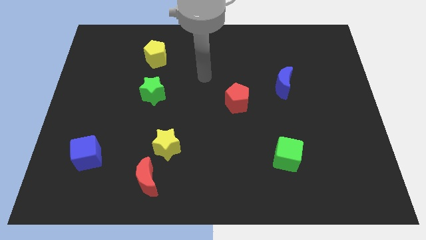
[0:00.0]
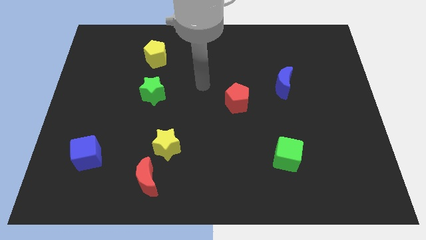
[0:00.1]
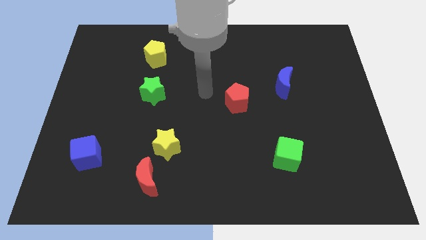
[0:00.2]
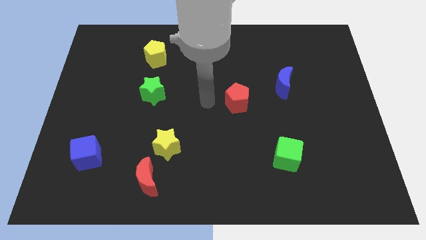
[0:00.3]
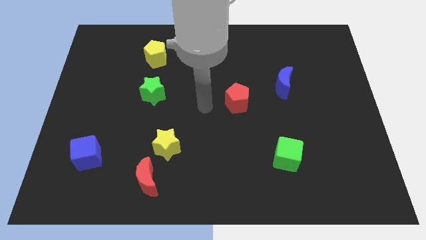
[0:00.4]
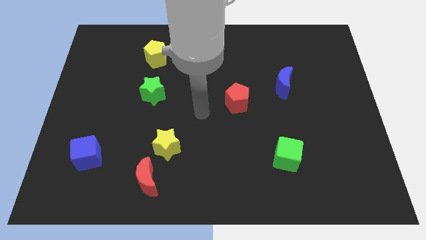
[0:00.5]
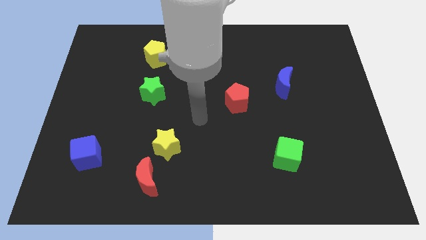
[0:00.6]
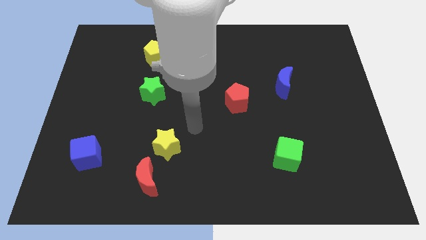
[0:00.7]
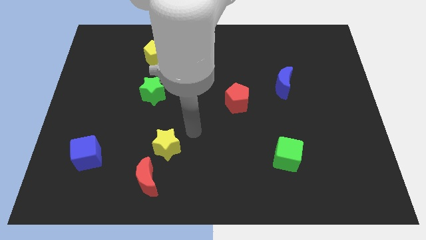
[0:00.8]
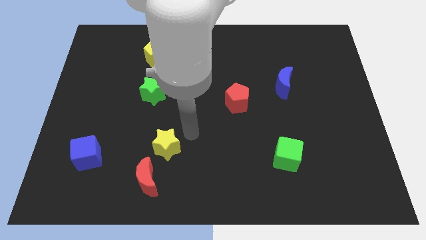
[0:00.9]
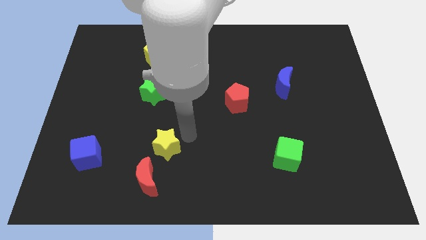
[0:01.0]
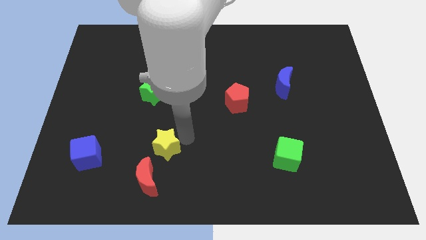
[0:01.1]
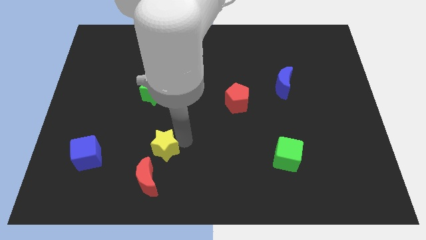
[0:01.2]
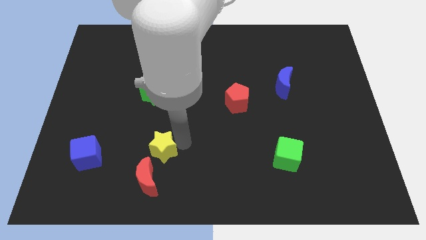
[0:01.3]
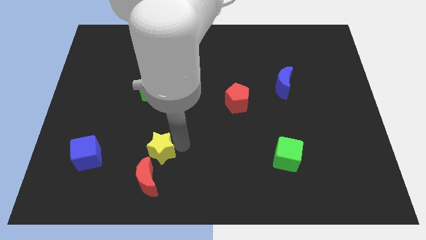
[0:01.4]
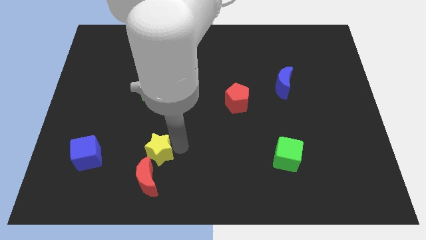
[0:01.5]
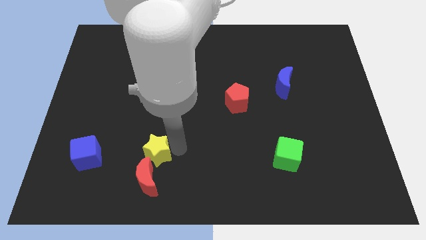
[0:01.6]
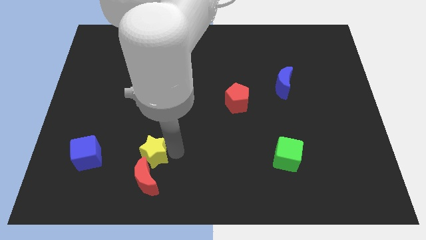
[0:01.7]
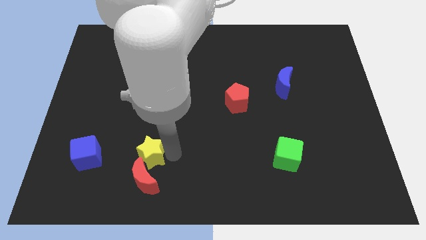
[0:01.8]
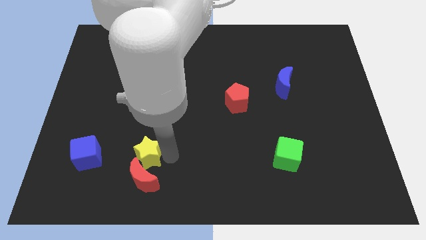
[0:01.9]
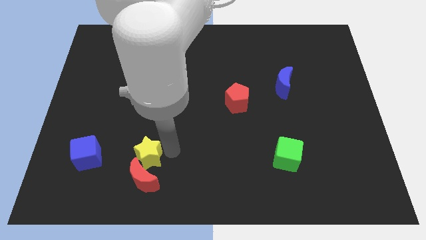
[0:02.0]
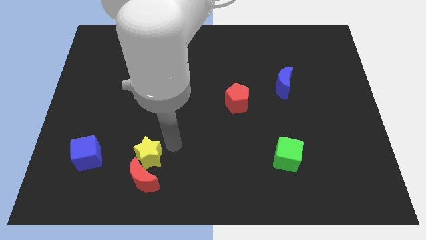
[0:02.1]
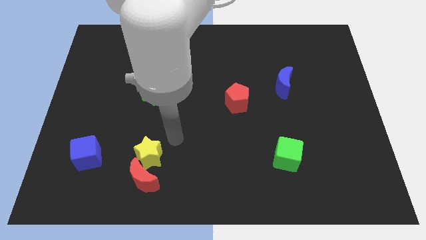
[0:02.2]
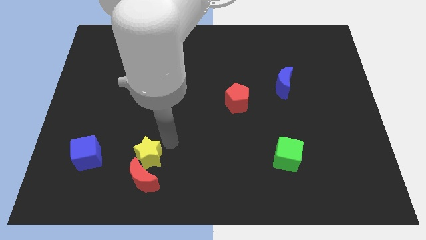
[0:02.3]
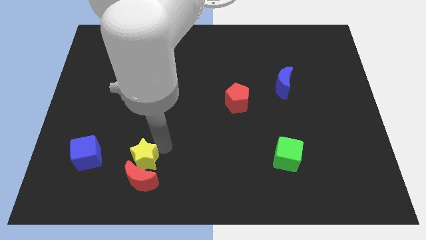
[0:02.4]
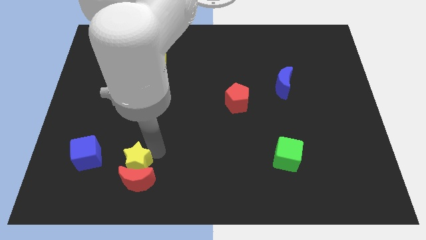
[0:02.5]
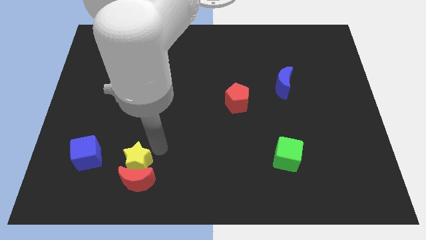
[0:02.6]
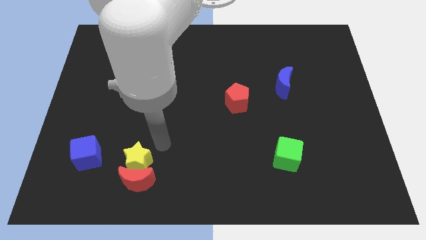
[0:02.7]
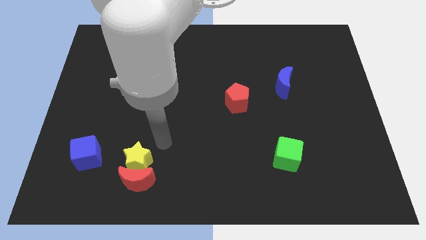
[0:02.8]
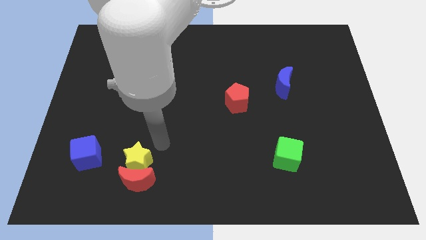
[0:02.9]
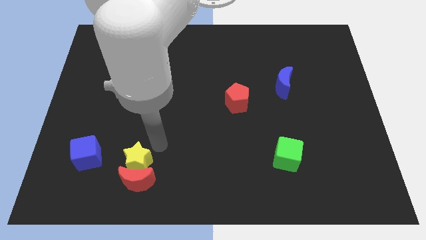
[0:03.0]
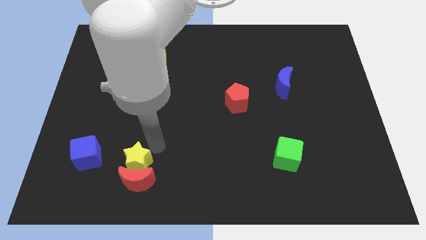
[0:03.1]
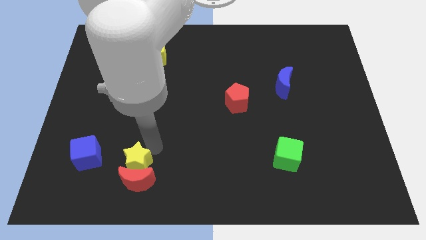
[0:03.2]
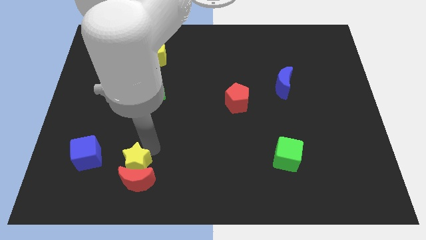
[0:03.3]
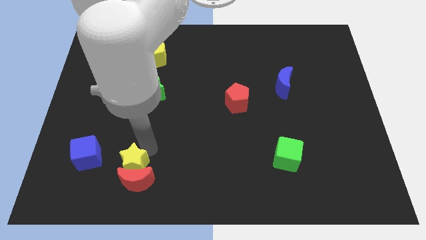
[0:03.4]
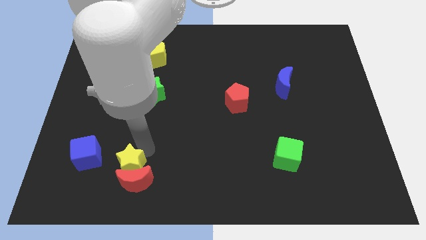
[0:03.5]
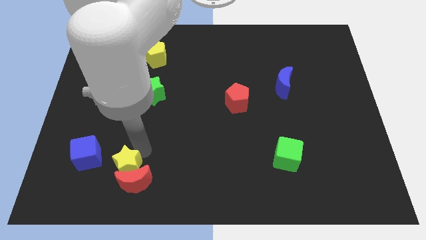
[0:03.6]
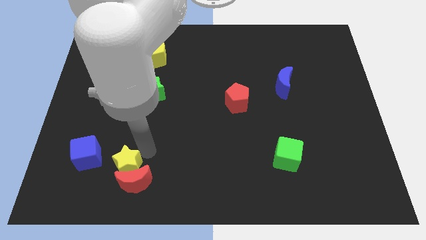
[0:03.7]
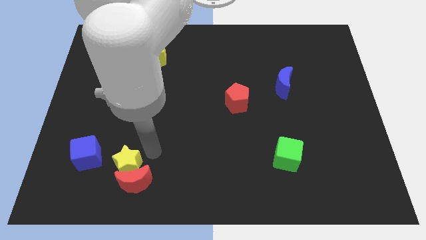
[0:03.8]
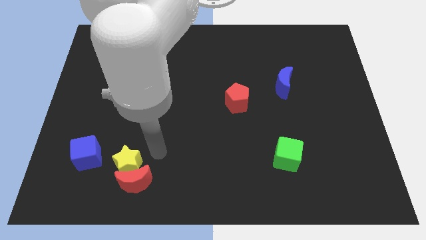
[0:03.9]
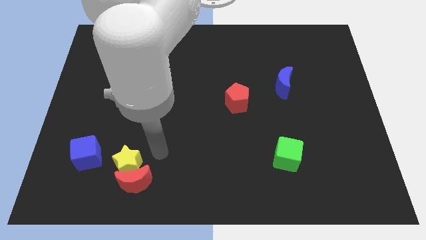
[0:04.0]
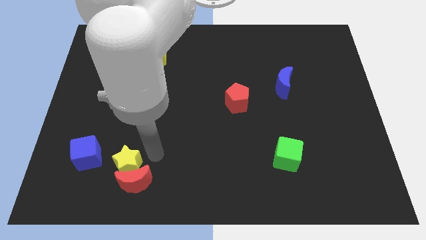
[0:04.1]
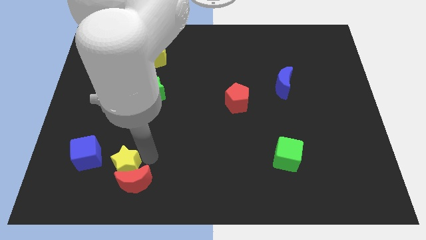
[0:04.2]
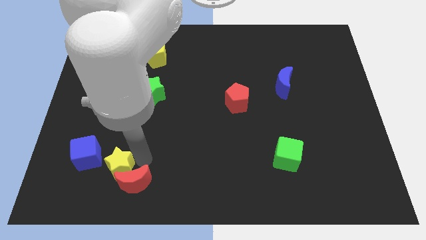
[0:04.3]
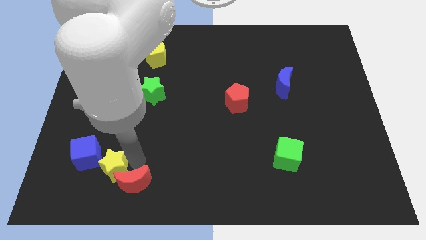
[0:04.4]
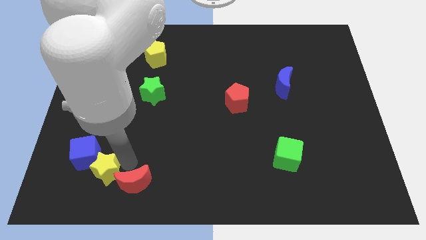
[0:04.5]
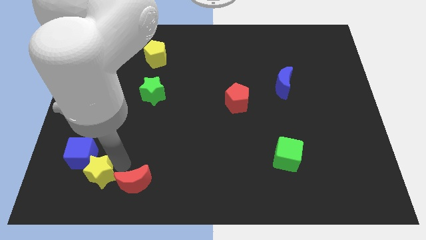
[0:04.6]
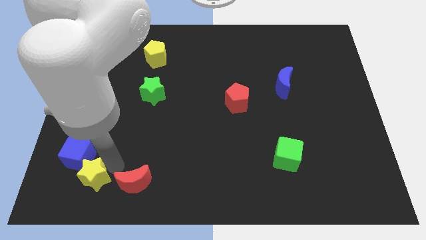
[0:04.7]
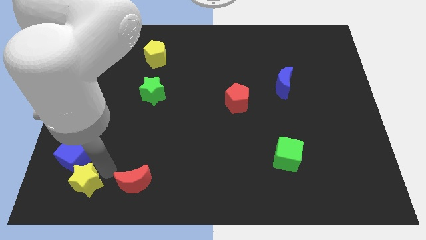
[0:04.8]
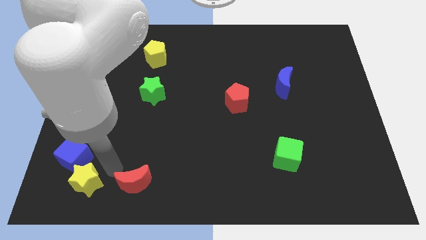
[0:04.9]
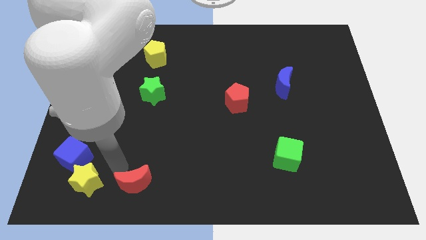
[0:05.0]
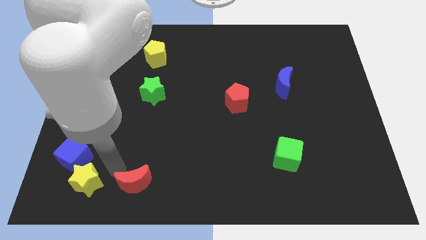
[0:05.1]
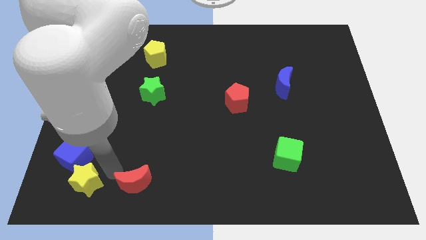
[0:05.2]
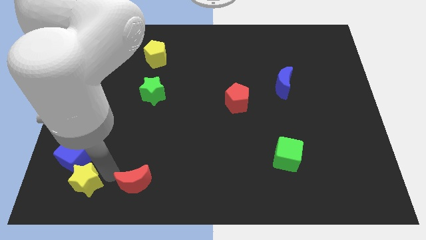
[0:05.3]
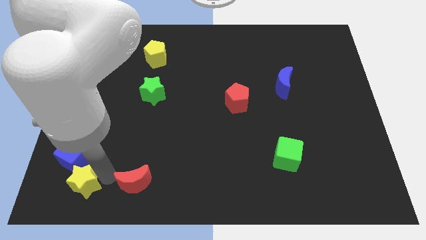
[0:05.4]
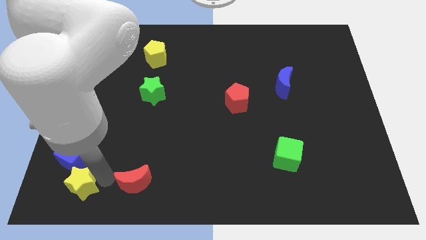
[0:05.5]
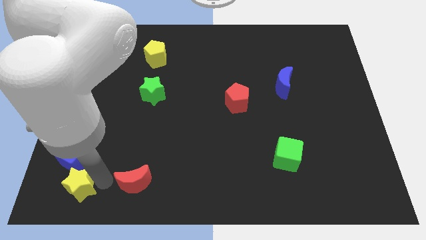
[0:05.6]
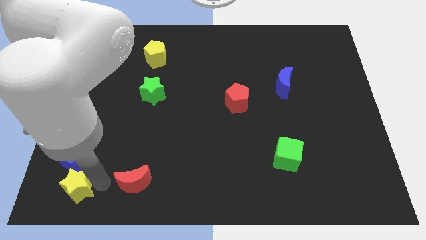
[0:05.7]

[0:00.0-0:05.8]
slide the yellow star to the bottom left corner

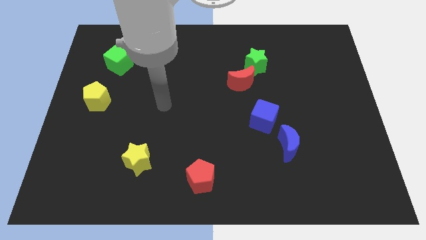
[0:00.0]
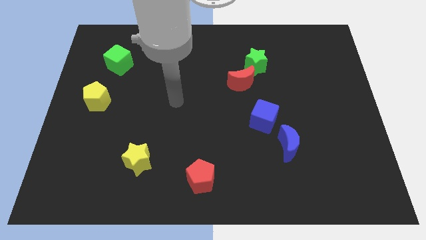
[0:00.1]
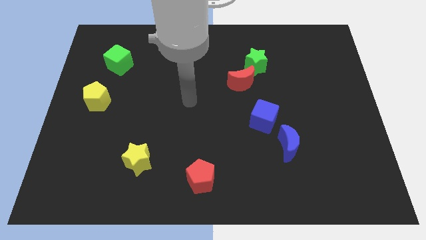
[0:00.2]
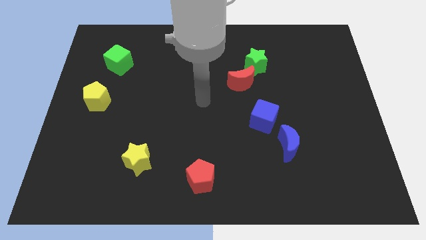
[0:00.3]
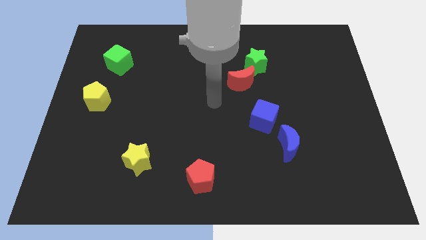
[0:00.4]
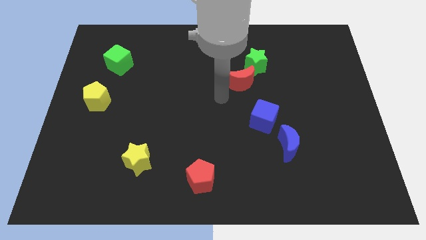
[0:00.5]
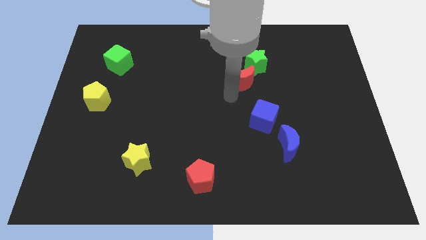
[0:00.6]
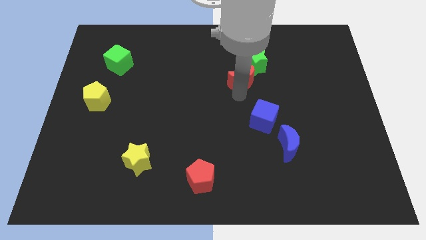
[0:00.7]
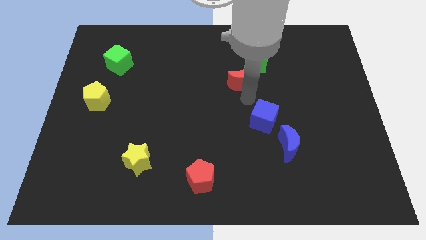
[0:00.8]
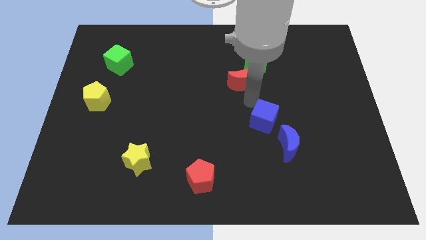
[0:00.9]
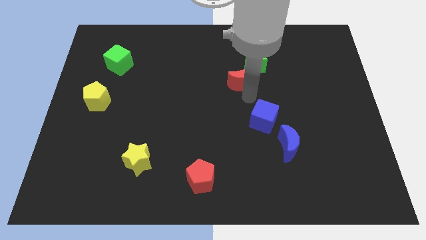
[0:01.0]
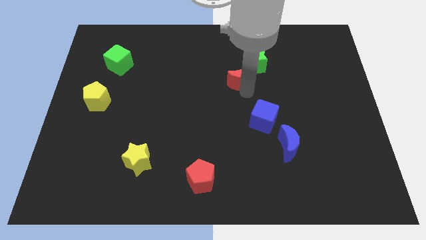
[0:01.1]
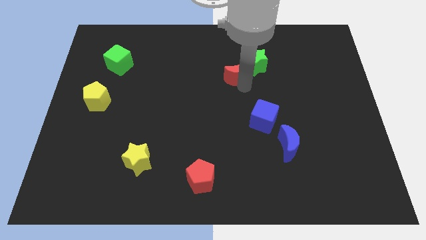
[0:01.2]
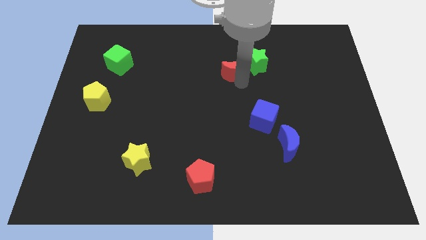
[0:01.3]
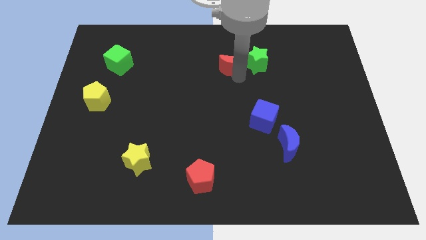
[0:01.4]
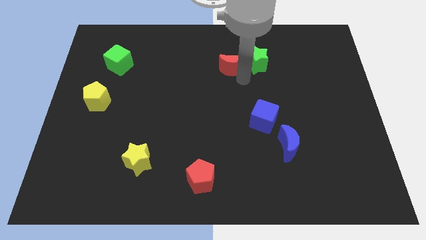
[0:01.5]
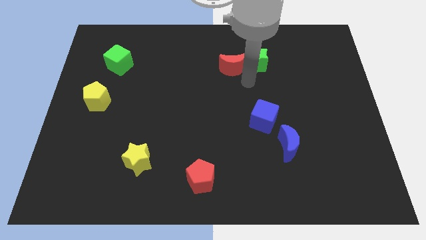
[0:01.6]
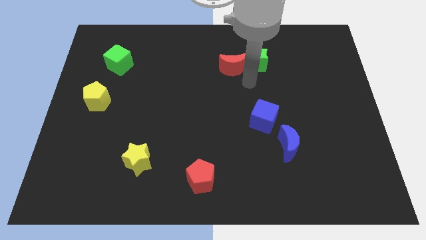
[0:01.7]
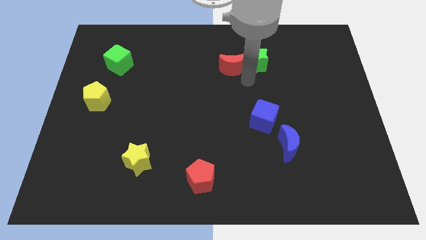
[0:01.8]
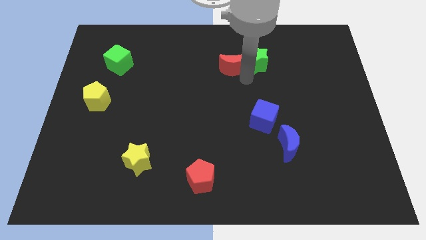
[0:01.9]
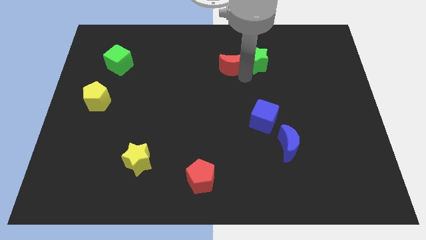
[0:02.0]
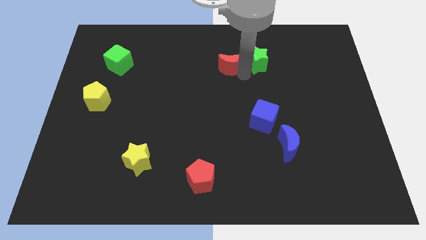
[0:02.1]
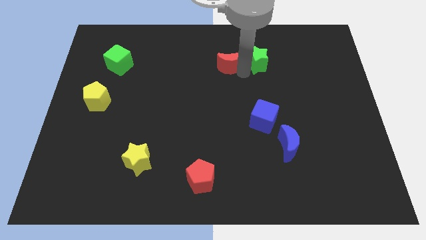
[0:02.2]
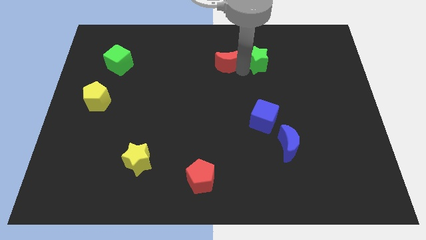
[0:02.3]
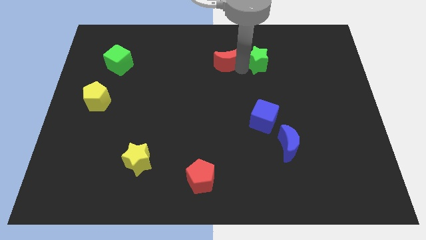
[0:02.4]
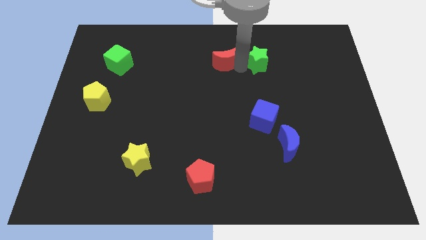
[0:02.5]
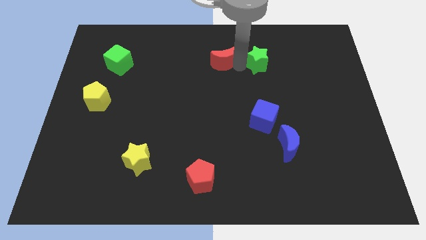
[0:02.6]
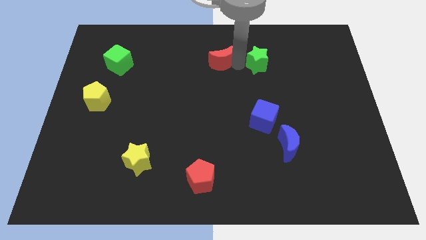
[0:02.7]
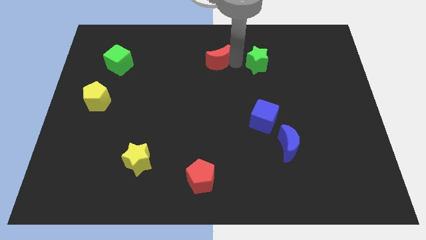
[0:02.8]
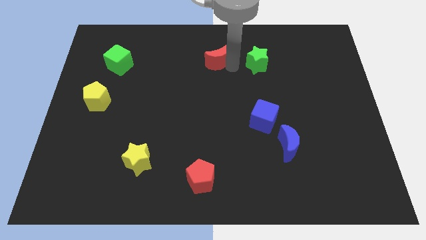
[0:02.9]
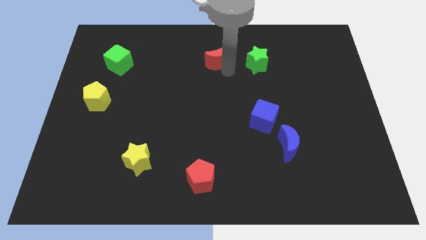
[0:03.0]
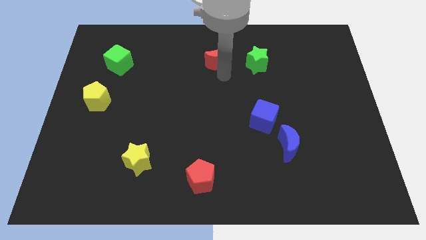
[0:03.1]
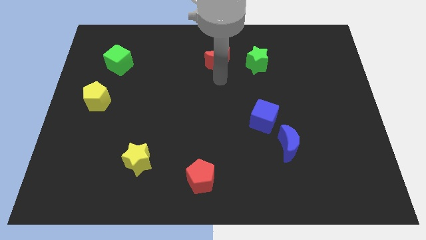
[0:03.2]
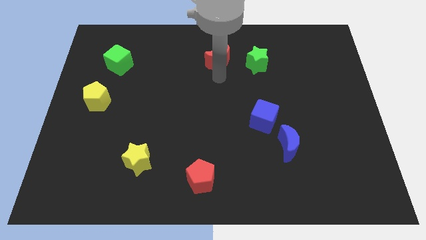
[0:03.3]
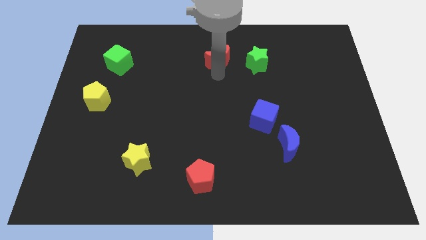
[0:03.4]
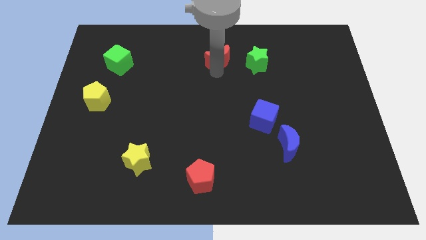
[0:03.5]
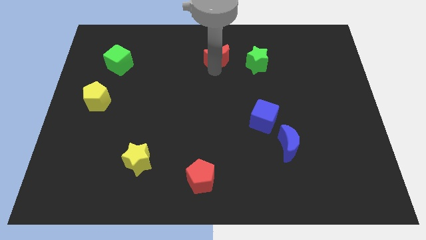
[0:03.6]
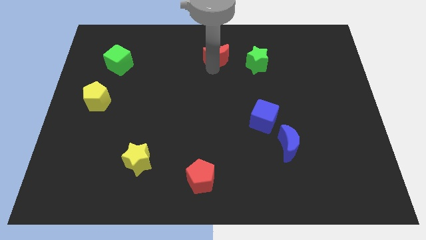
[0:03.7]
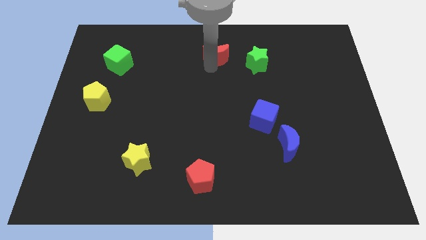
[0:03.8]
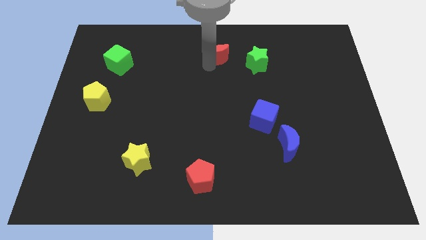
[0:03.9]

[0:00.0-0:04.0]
put the red moon to the top
